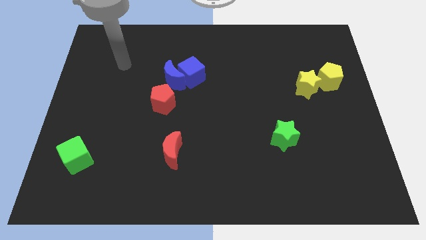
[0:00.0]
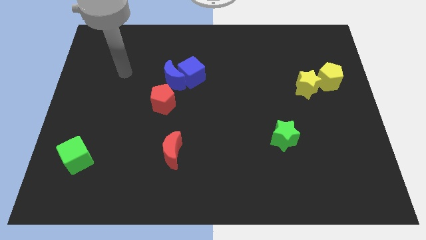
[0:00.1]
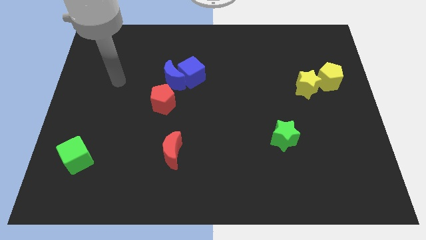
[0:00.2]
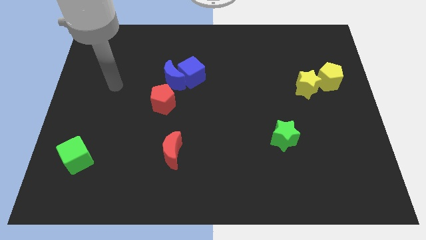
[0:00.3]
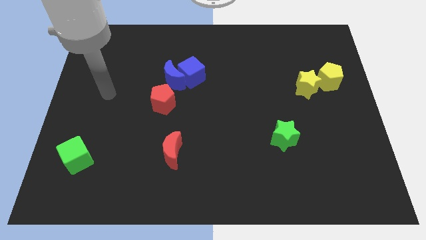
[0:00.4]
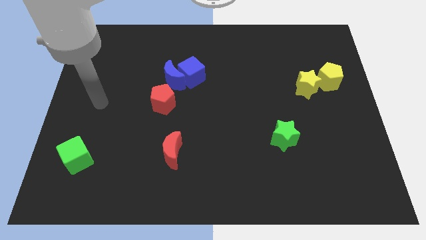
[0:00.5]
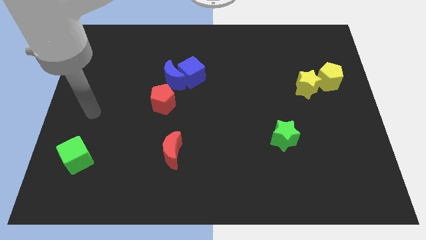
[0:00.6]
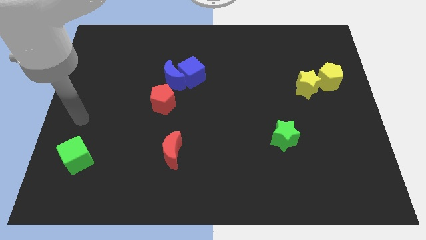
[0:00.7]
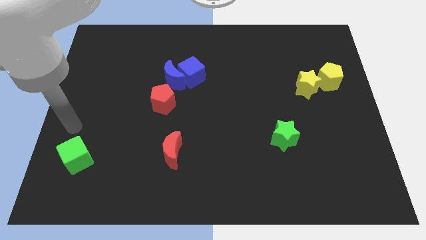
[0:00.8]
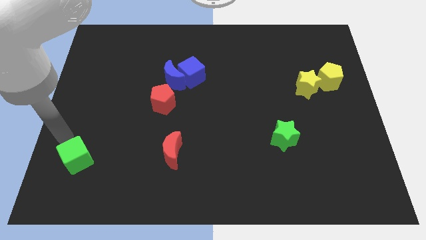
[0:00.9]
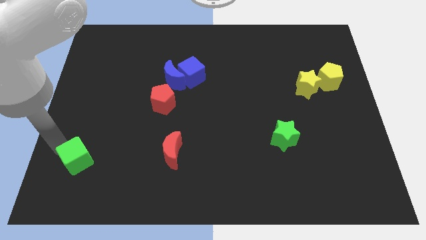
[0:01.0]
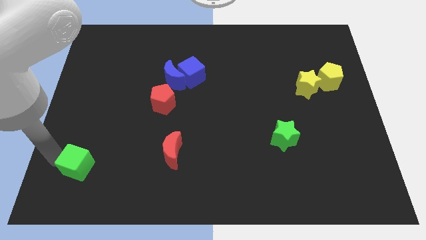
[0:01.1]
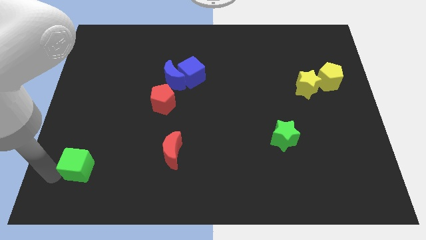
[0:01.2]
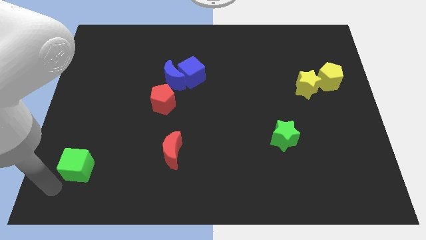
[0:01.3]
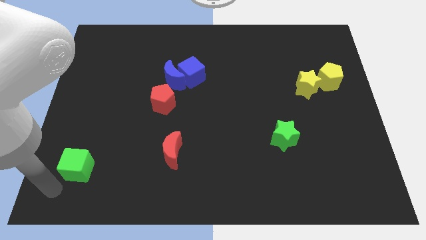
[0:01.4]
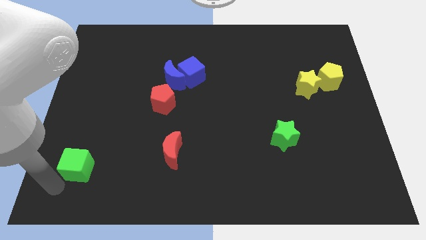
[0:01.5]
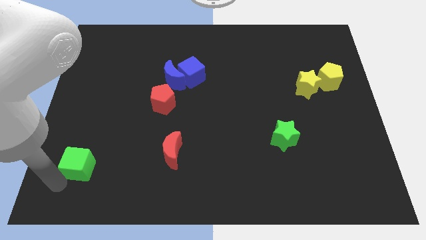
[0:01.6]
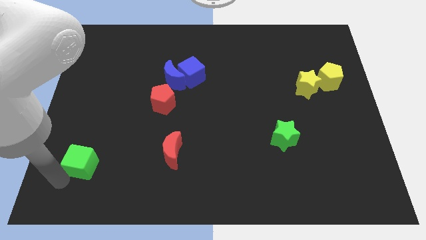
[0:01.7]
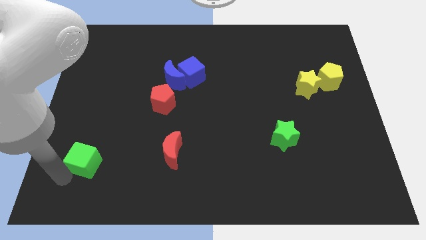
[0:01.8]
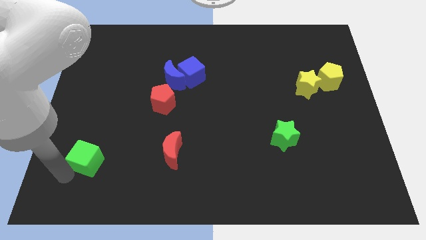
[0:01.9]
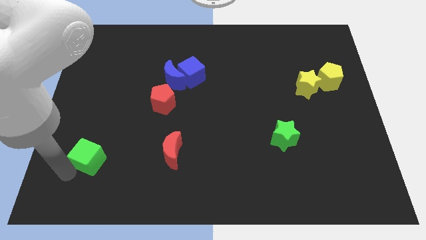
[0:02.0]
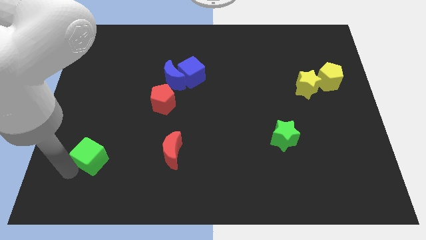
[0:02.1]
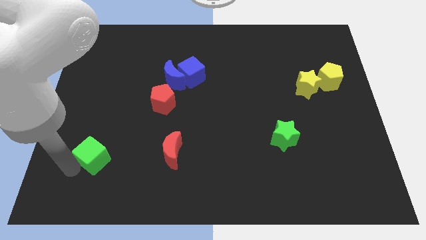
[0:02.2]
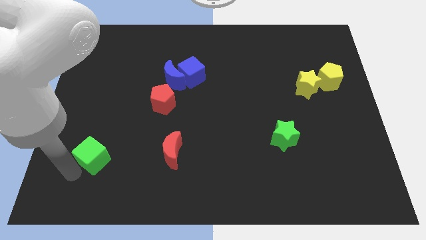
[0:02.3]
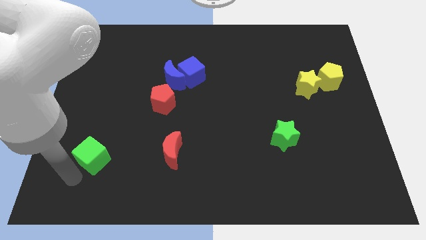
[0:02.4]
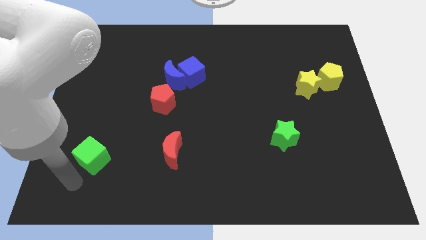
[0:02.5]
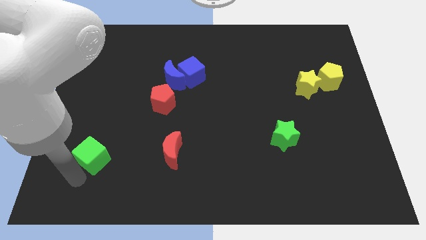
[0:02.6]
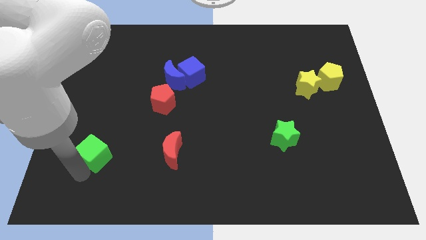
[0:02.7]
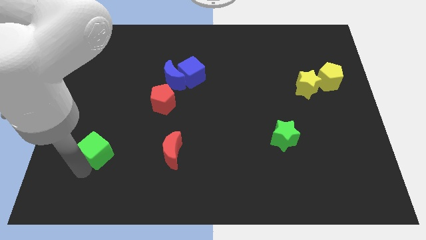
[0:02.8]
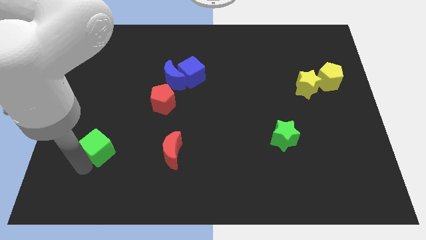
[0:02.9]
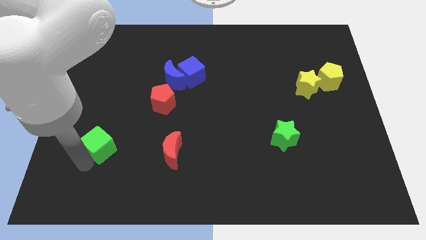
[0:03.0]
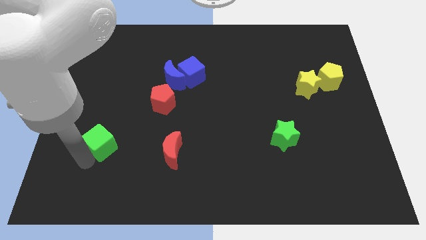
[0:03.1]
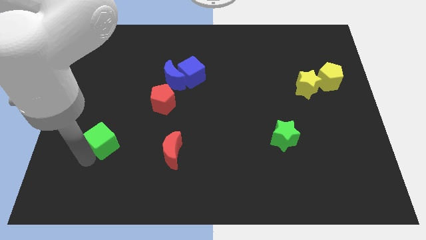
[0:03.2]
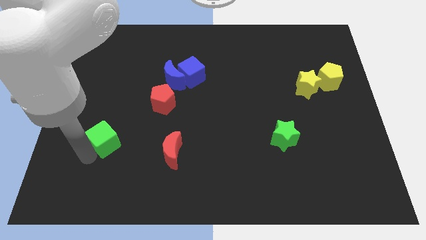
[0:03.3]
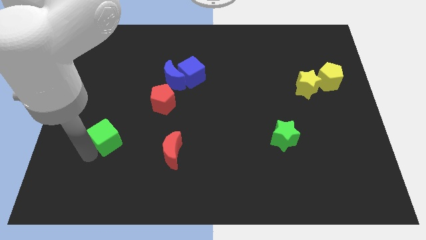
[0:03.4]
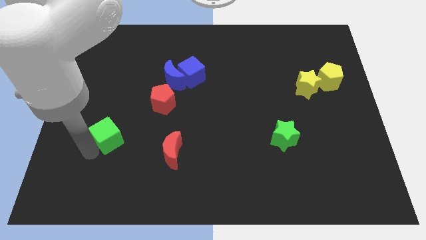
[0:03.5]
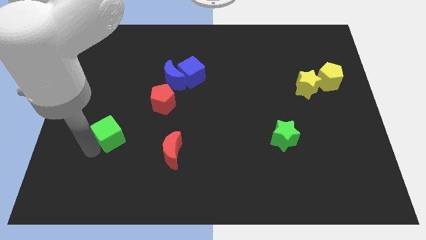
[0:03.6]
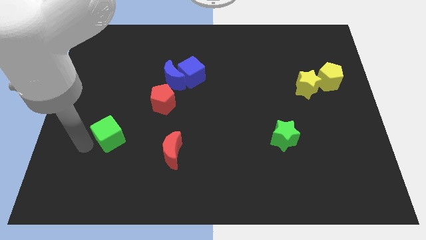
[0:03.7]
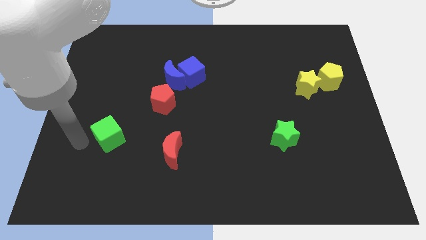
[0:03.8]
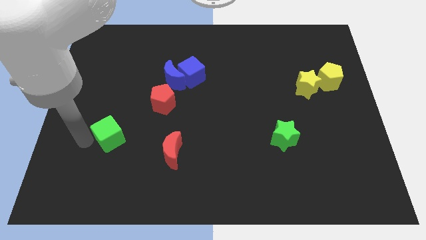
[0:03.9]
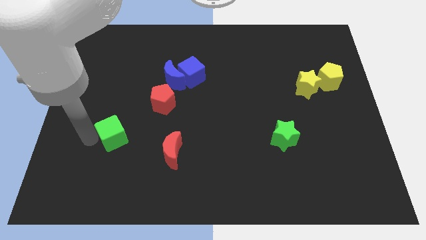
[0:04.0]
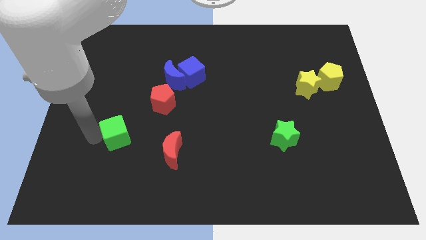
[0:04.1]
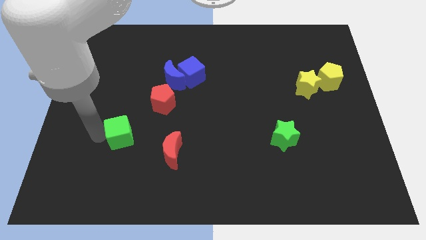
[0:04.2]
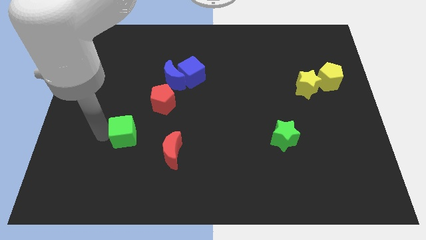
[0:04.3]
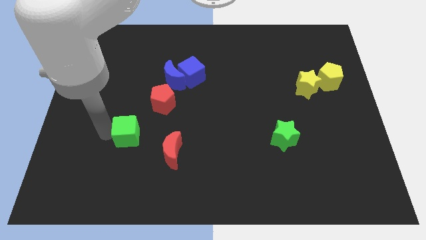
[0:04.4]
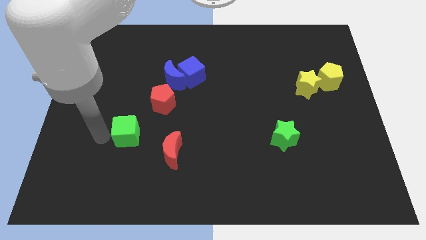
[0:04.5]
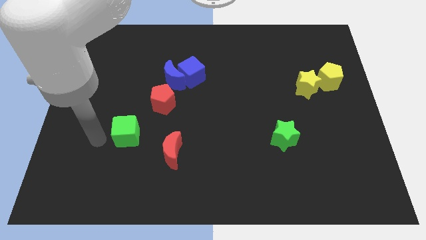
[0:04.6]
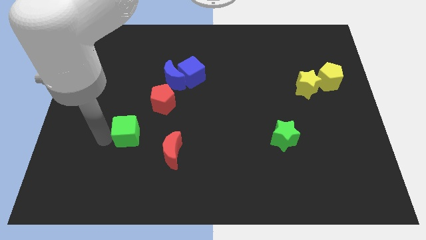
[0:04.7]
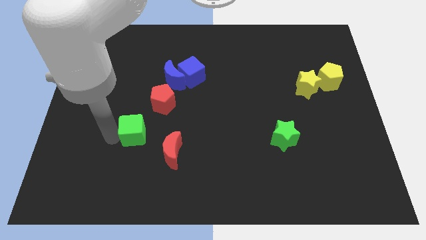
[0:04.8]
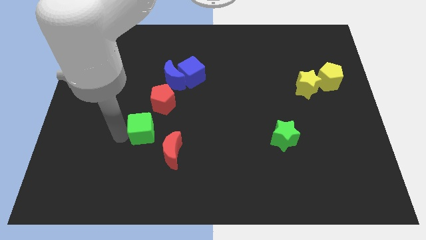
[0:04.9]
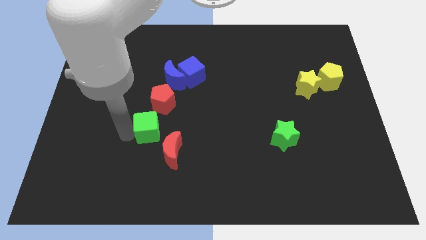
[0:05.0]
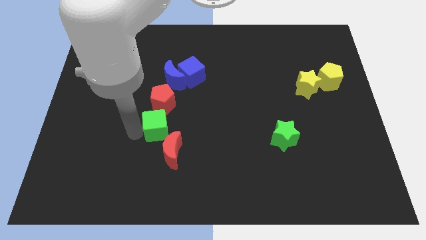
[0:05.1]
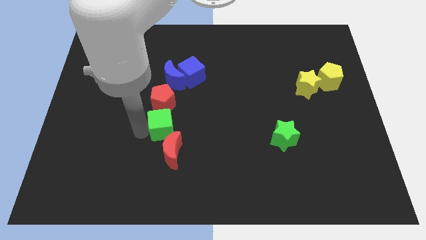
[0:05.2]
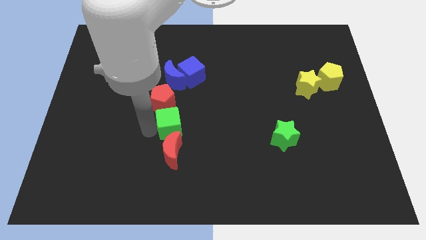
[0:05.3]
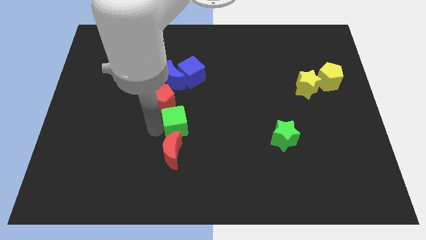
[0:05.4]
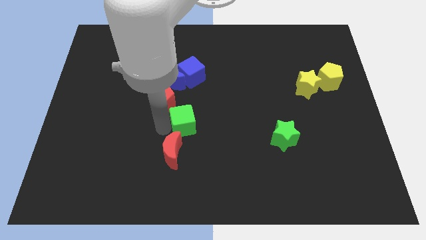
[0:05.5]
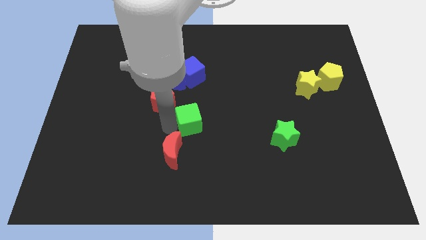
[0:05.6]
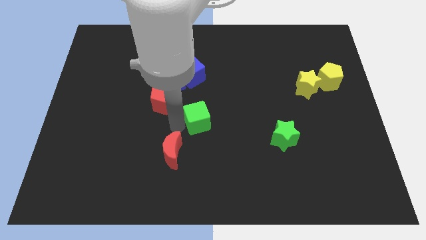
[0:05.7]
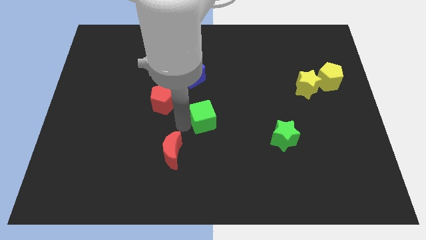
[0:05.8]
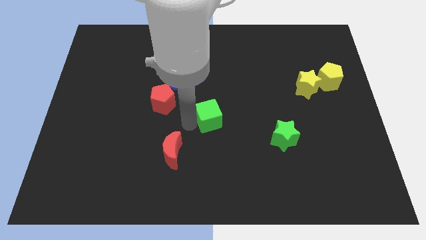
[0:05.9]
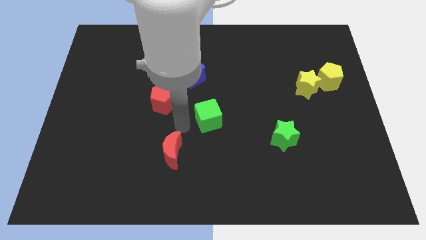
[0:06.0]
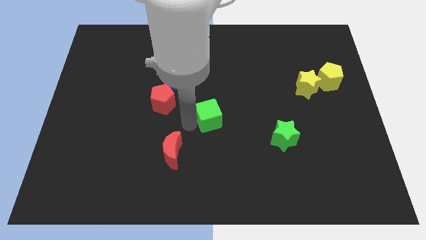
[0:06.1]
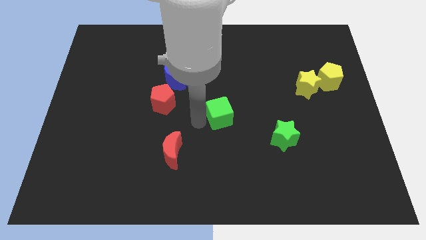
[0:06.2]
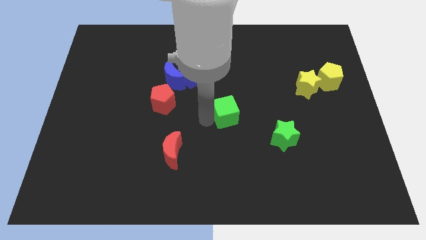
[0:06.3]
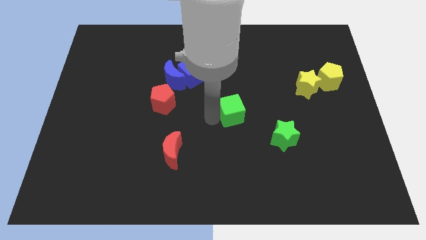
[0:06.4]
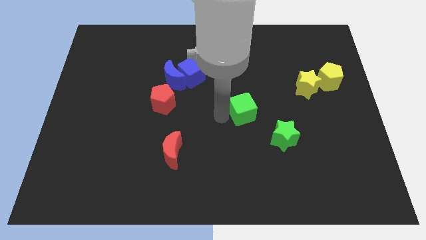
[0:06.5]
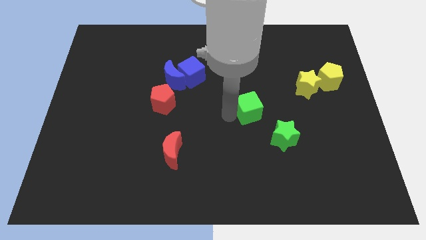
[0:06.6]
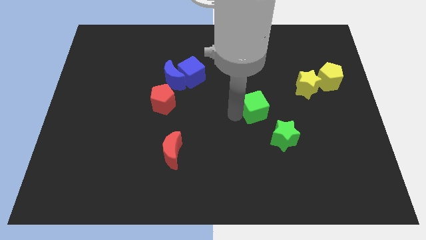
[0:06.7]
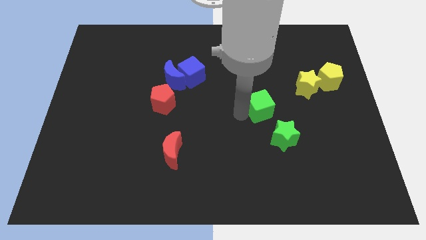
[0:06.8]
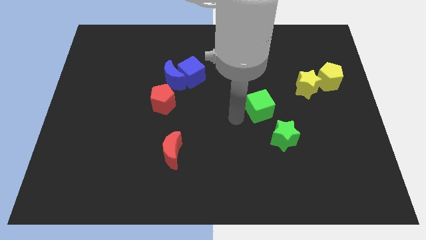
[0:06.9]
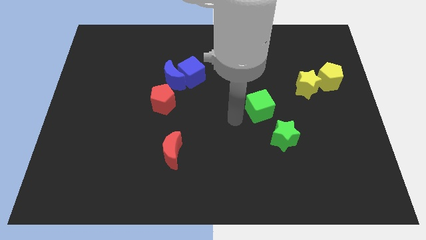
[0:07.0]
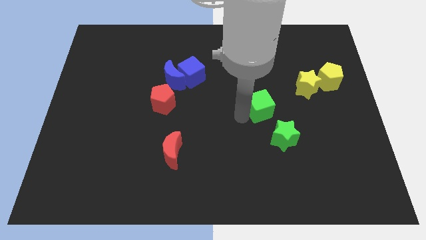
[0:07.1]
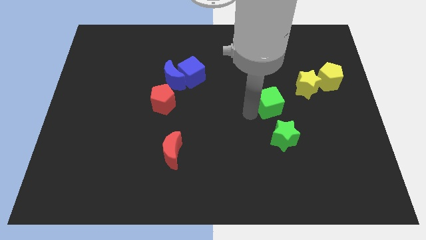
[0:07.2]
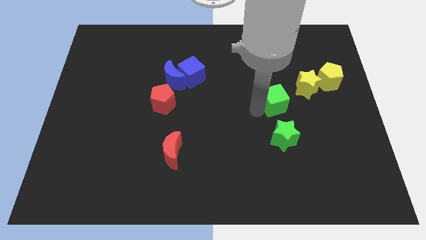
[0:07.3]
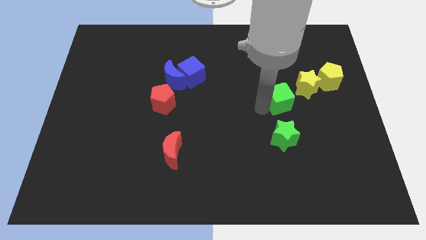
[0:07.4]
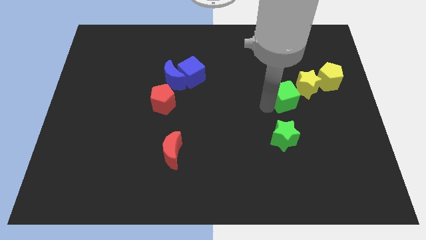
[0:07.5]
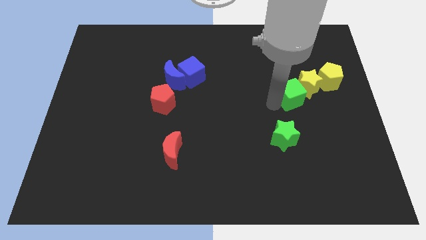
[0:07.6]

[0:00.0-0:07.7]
put the green cube next to the yellow star

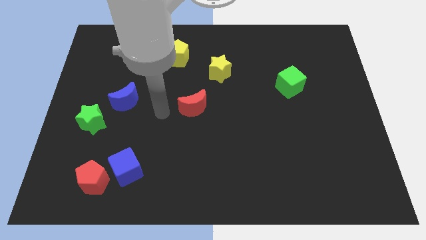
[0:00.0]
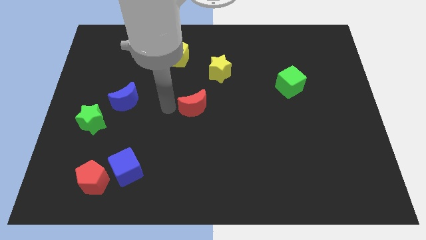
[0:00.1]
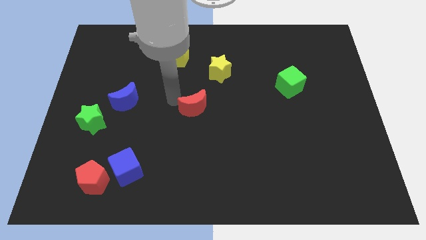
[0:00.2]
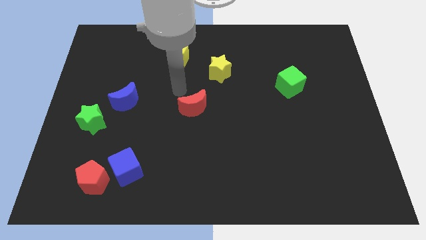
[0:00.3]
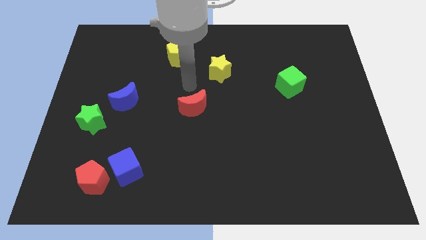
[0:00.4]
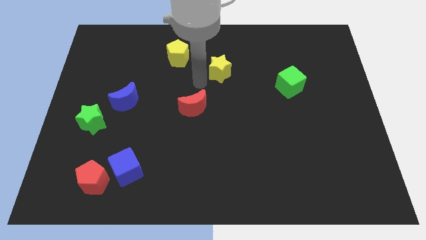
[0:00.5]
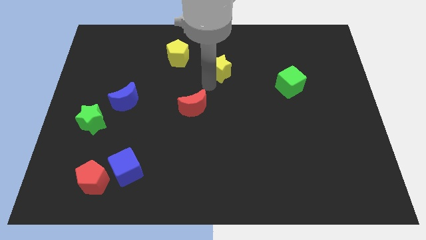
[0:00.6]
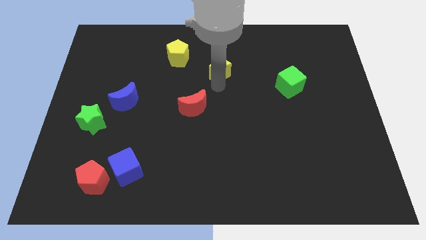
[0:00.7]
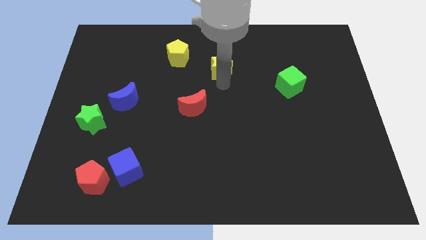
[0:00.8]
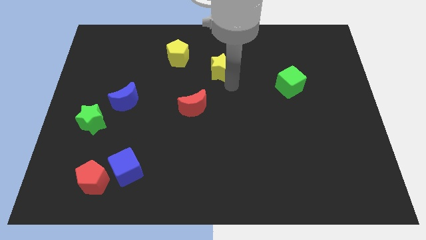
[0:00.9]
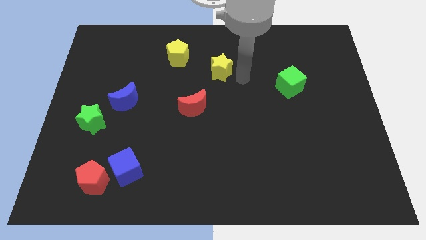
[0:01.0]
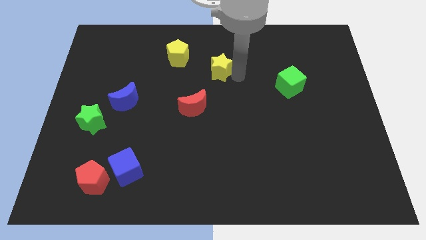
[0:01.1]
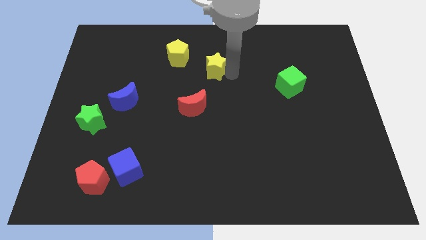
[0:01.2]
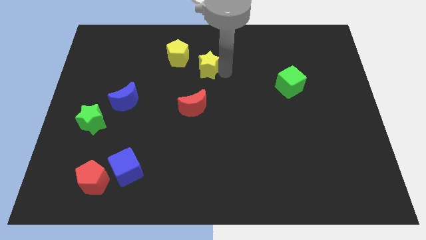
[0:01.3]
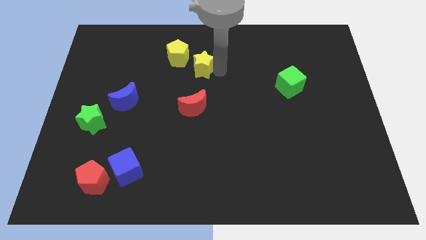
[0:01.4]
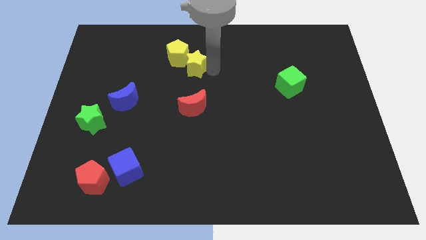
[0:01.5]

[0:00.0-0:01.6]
push the yellow star close to the yellow pentagon
